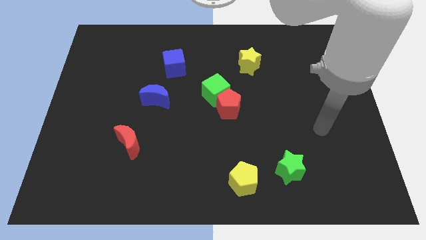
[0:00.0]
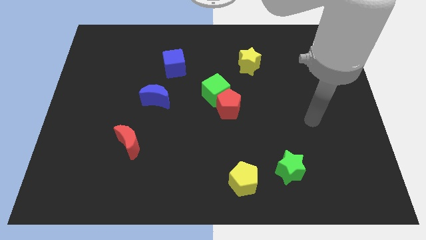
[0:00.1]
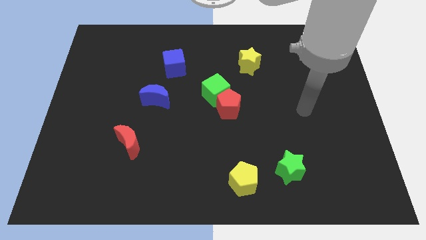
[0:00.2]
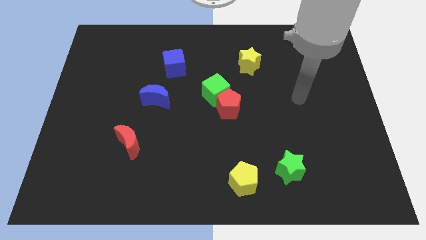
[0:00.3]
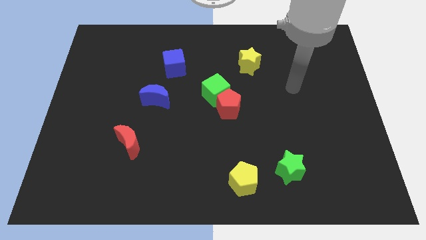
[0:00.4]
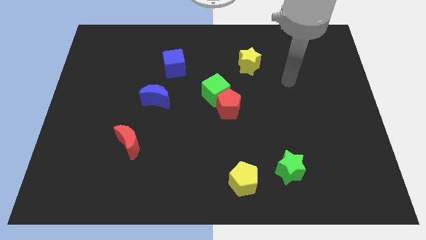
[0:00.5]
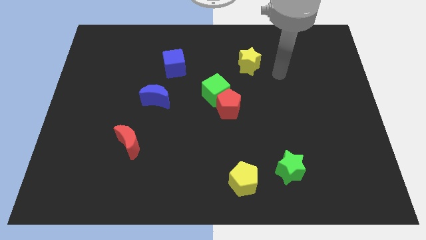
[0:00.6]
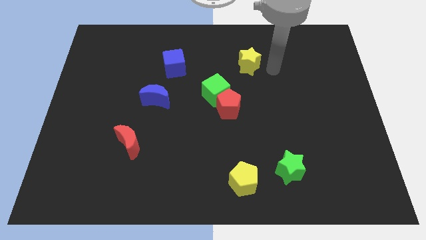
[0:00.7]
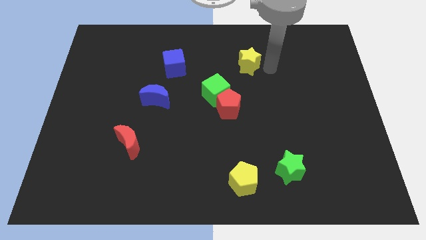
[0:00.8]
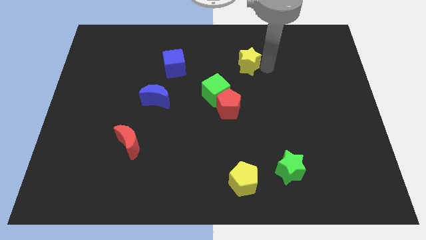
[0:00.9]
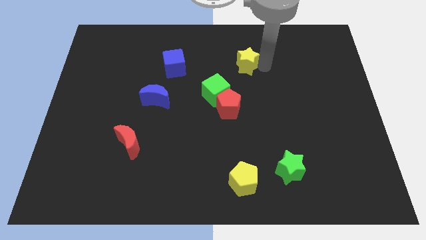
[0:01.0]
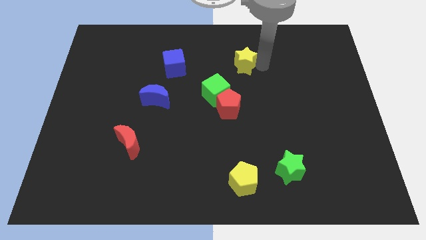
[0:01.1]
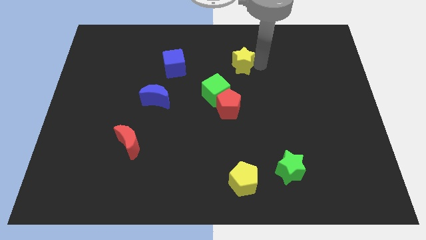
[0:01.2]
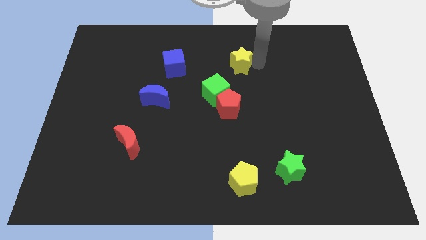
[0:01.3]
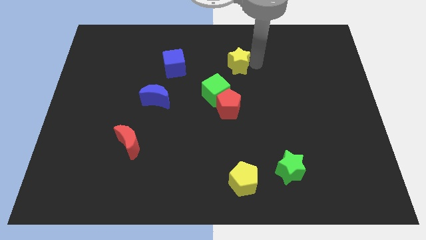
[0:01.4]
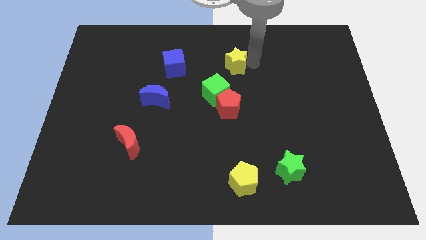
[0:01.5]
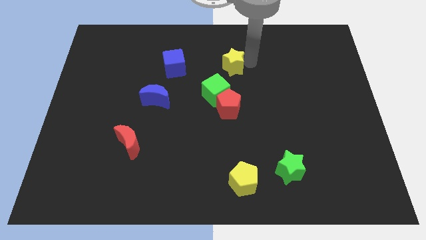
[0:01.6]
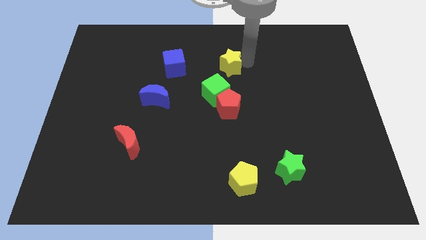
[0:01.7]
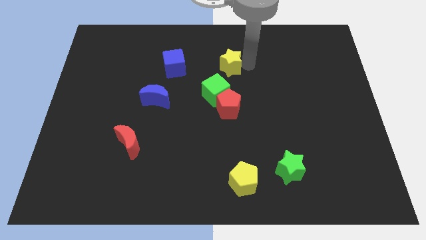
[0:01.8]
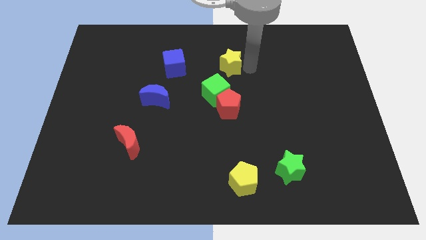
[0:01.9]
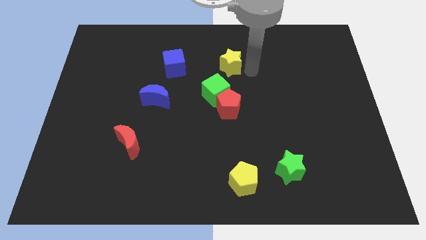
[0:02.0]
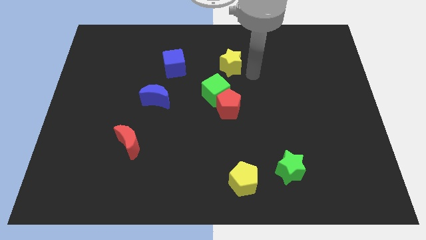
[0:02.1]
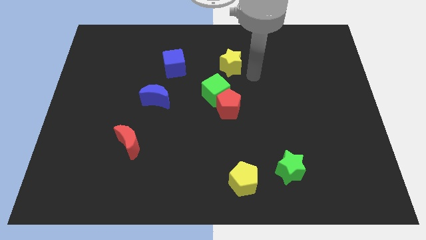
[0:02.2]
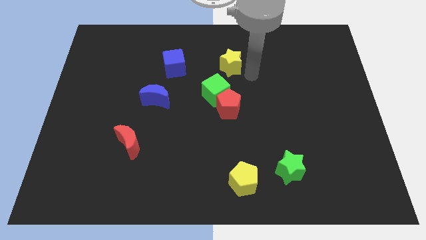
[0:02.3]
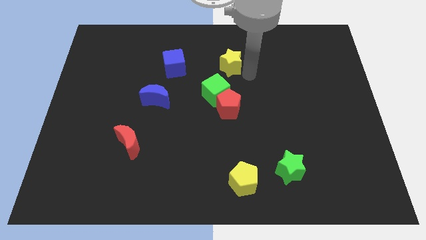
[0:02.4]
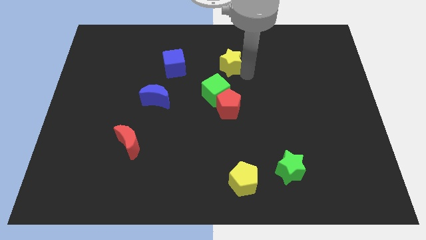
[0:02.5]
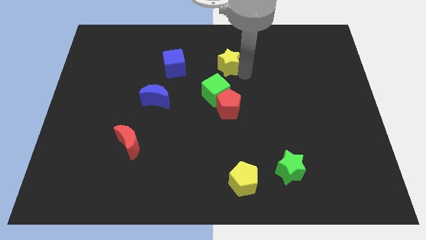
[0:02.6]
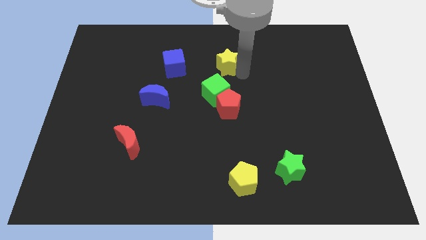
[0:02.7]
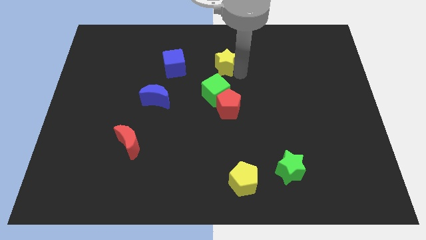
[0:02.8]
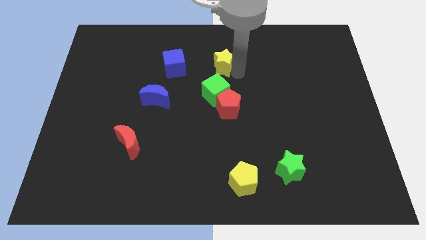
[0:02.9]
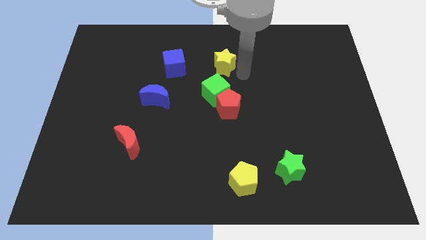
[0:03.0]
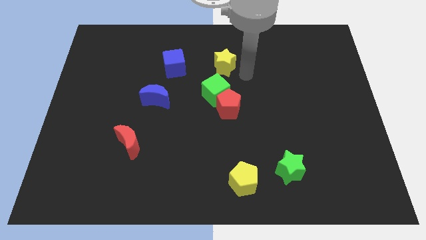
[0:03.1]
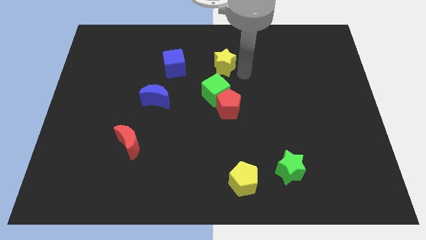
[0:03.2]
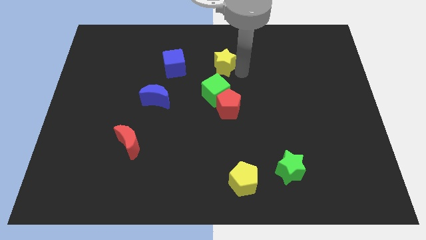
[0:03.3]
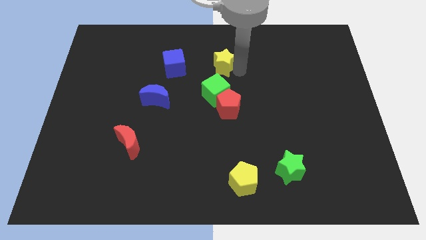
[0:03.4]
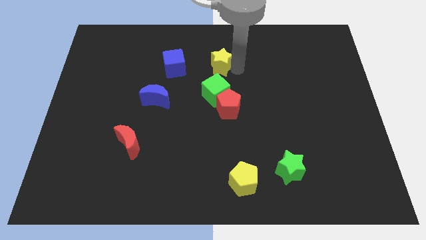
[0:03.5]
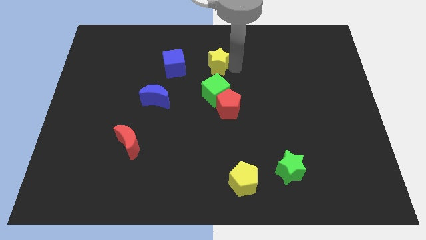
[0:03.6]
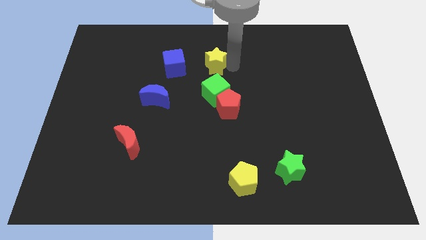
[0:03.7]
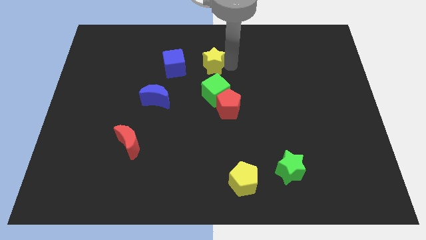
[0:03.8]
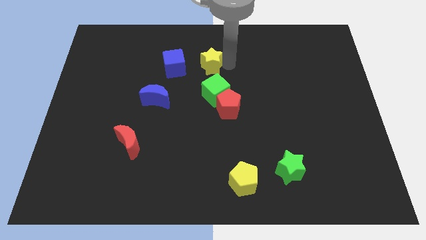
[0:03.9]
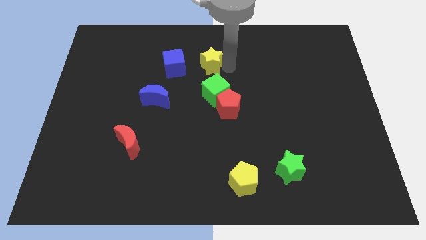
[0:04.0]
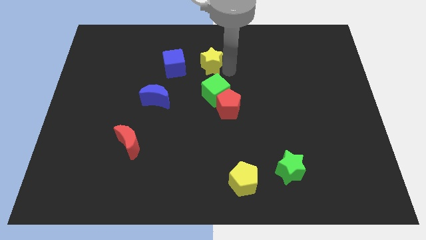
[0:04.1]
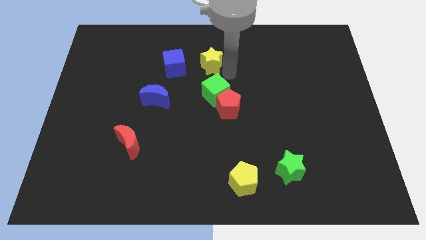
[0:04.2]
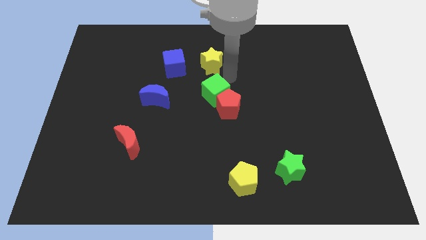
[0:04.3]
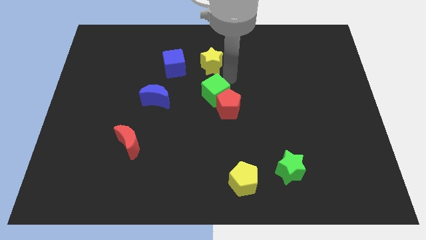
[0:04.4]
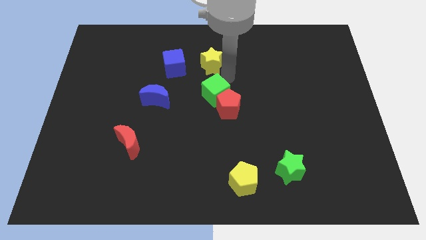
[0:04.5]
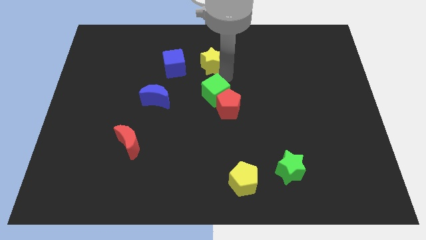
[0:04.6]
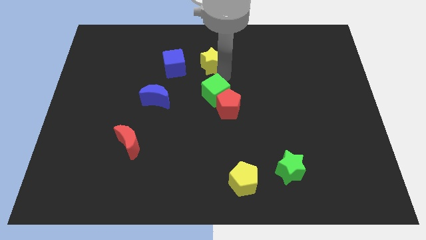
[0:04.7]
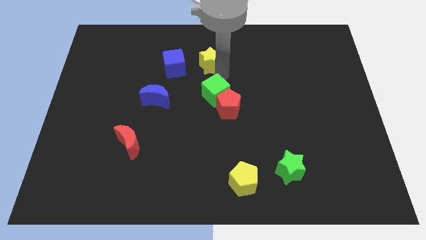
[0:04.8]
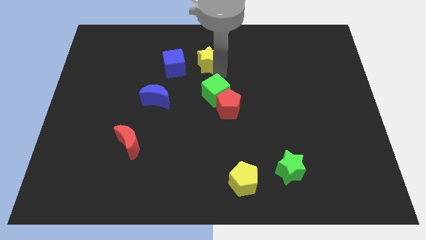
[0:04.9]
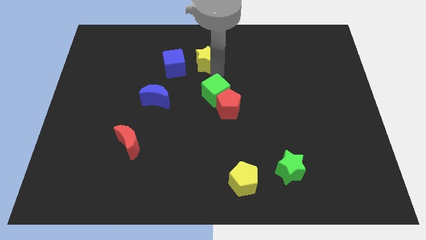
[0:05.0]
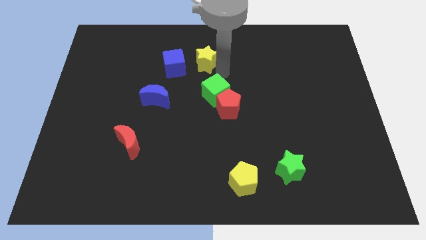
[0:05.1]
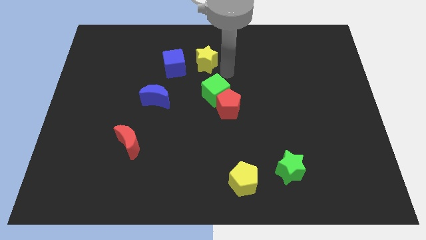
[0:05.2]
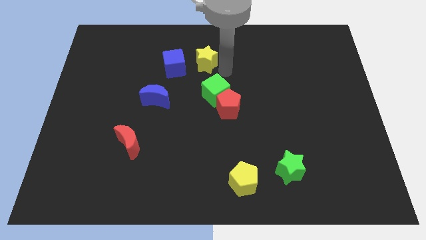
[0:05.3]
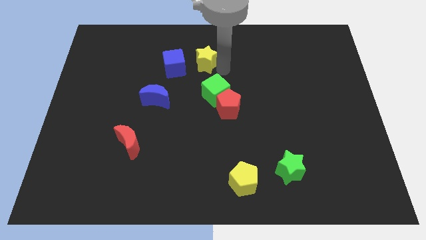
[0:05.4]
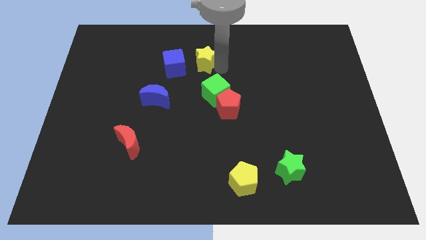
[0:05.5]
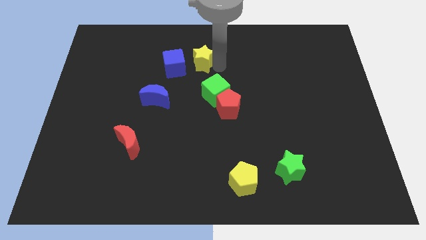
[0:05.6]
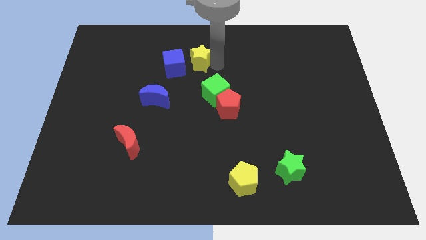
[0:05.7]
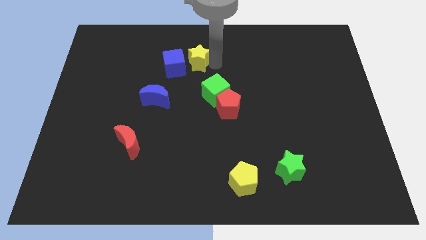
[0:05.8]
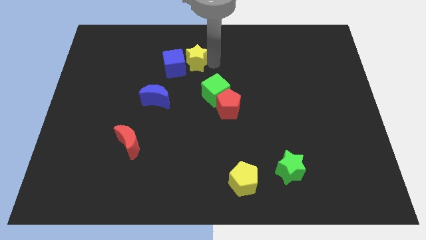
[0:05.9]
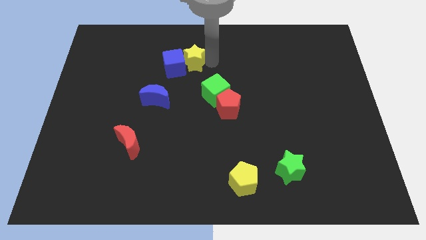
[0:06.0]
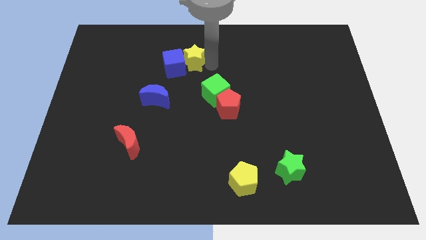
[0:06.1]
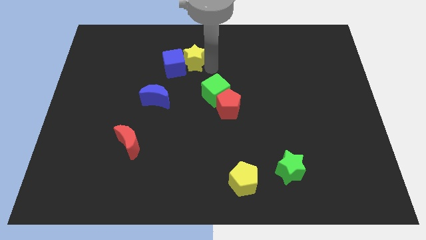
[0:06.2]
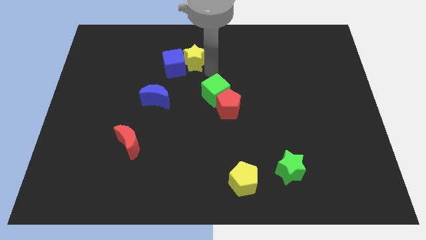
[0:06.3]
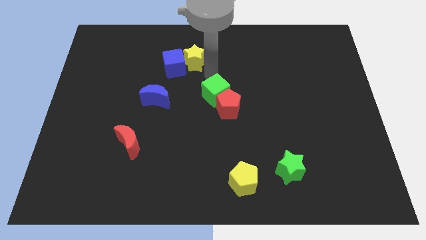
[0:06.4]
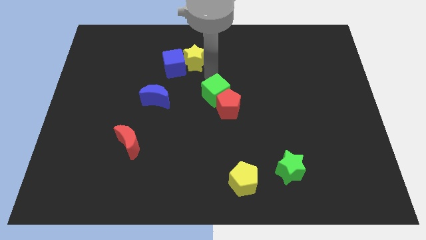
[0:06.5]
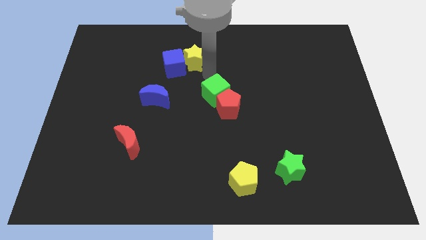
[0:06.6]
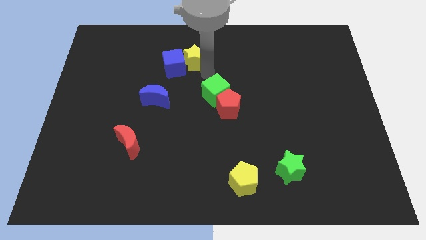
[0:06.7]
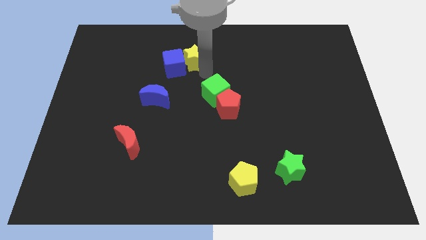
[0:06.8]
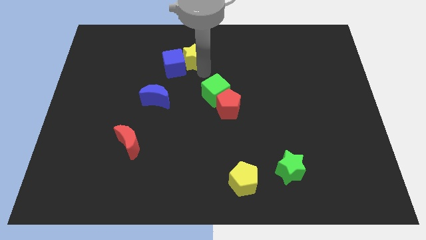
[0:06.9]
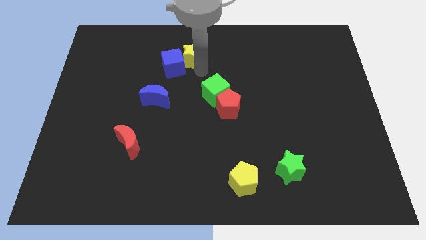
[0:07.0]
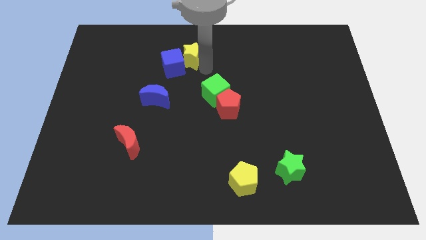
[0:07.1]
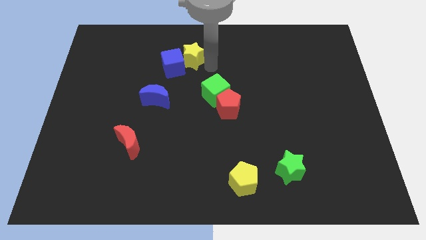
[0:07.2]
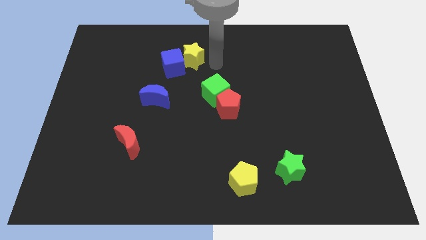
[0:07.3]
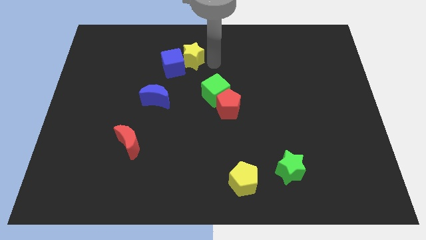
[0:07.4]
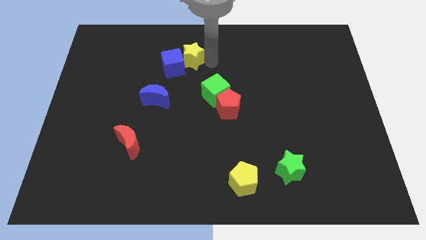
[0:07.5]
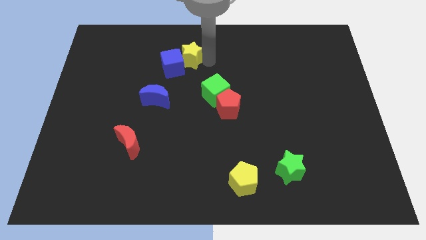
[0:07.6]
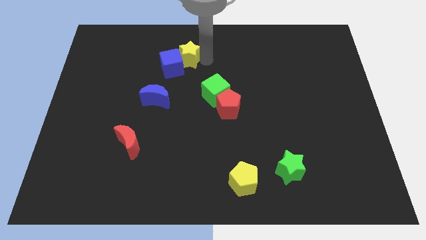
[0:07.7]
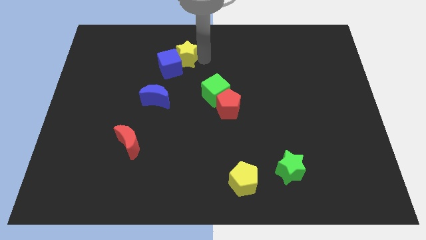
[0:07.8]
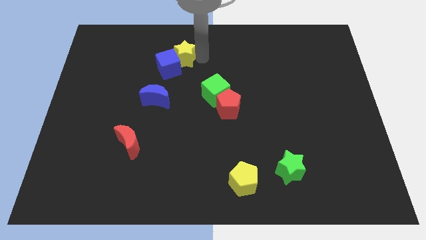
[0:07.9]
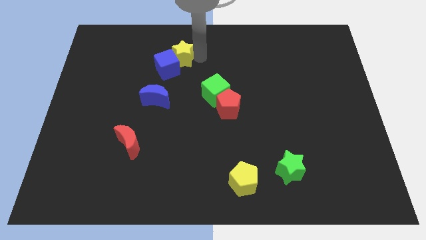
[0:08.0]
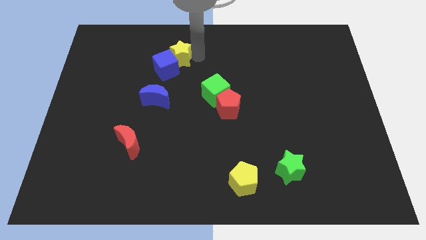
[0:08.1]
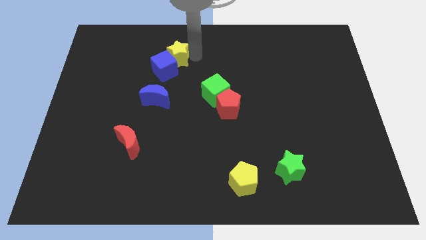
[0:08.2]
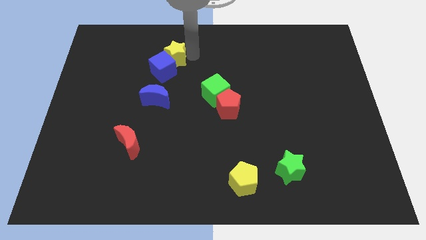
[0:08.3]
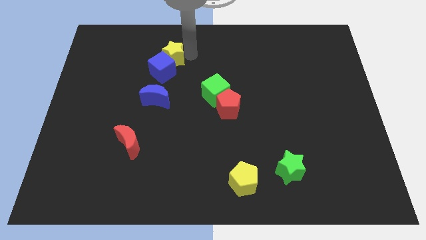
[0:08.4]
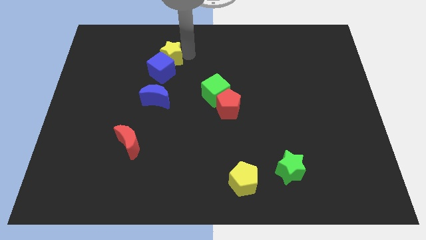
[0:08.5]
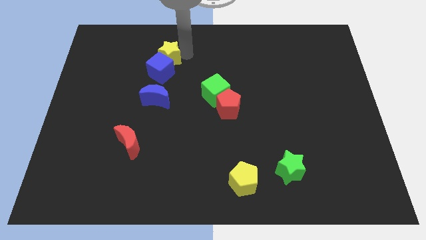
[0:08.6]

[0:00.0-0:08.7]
push the yellow star to the left
